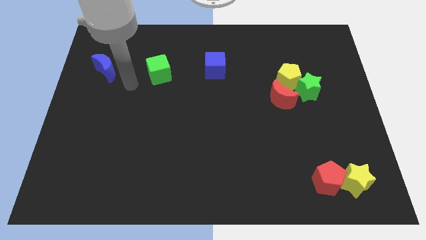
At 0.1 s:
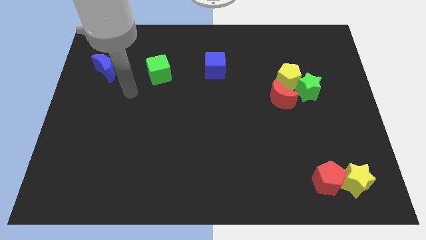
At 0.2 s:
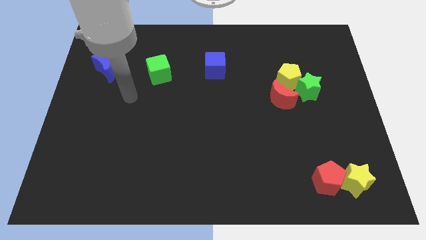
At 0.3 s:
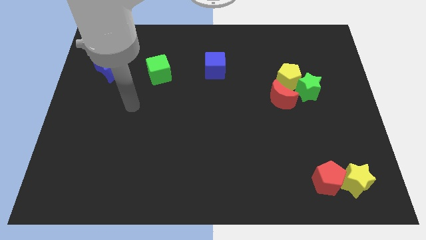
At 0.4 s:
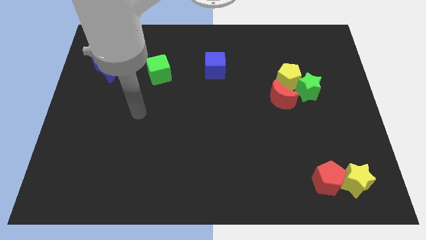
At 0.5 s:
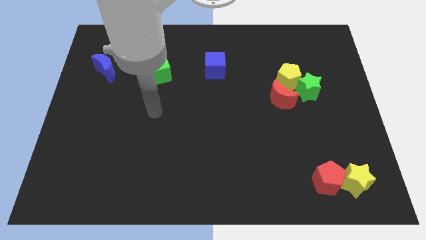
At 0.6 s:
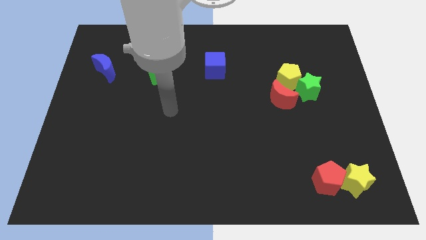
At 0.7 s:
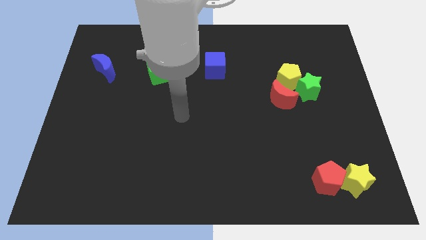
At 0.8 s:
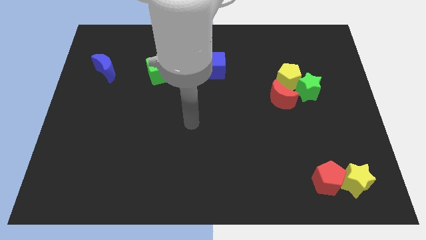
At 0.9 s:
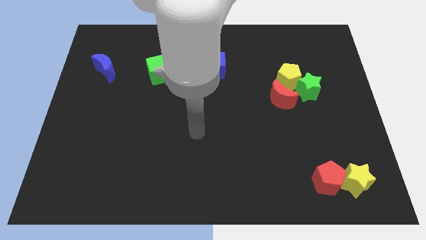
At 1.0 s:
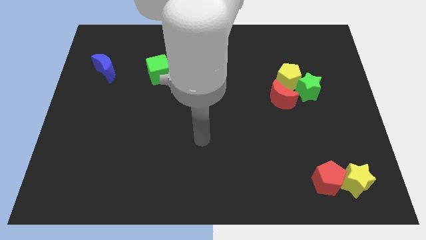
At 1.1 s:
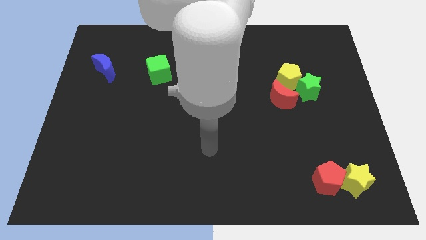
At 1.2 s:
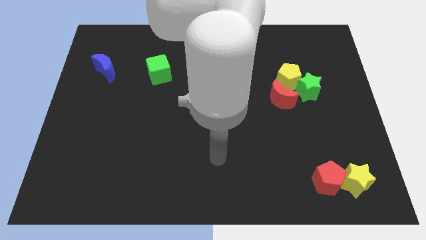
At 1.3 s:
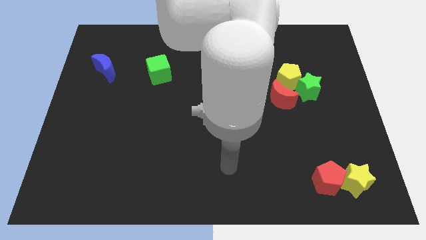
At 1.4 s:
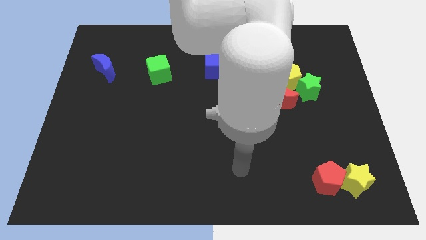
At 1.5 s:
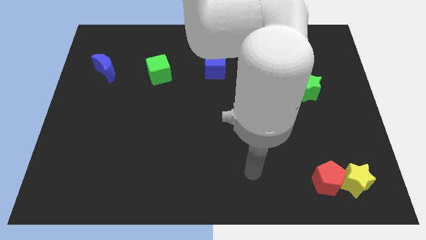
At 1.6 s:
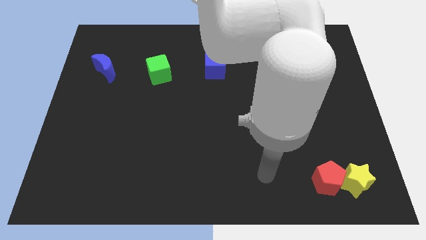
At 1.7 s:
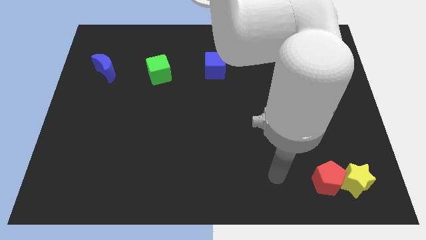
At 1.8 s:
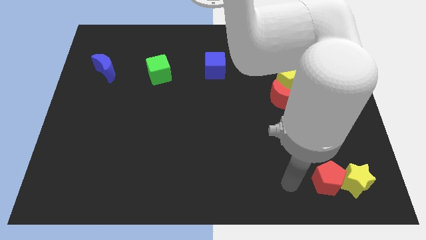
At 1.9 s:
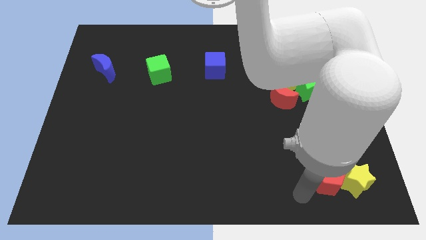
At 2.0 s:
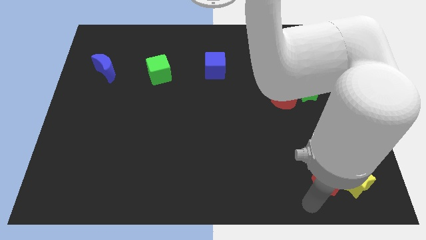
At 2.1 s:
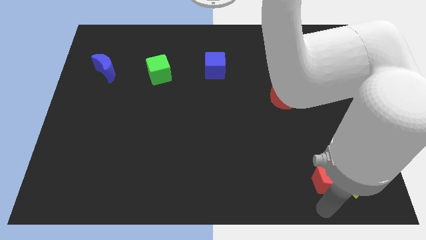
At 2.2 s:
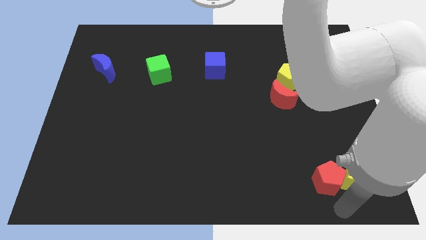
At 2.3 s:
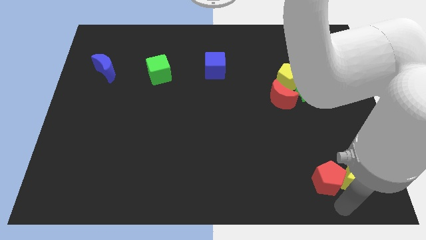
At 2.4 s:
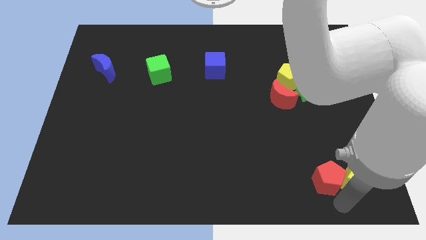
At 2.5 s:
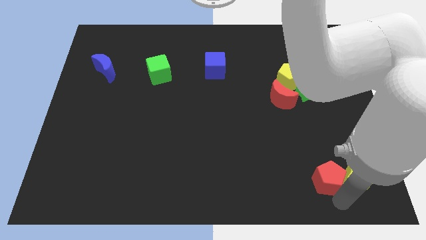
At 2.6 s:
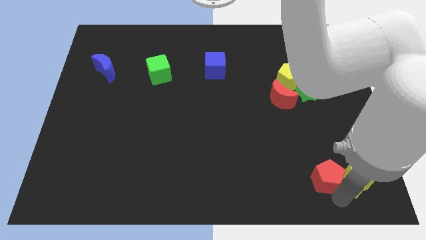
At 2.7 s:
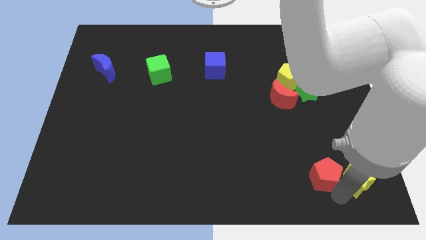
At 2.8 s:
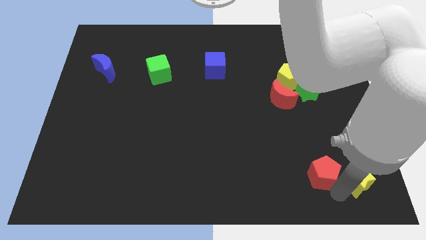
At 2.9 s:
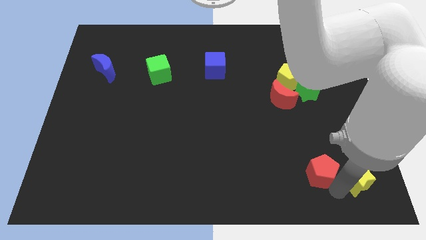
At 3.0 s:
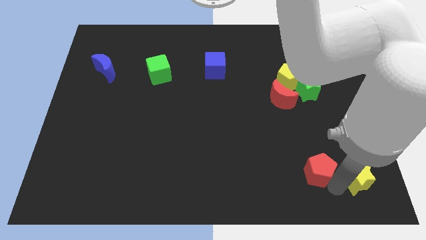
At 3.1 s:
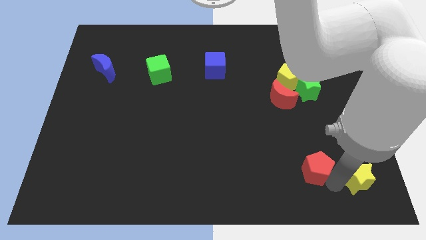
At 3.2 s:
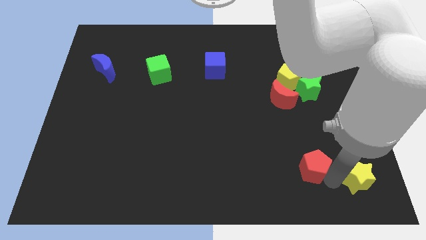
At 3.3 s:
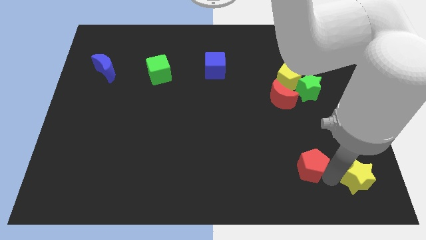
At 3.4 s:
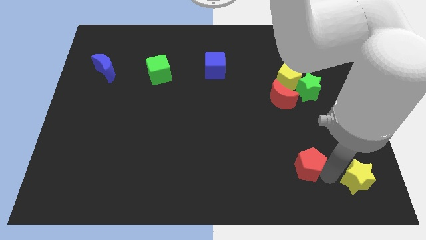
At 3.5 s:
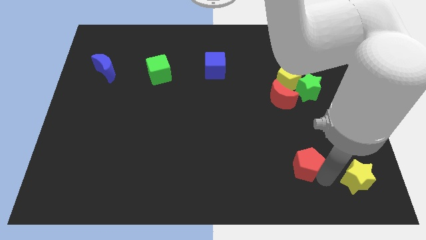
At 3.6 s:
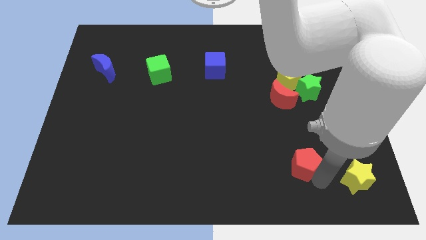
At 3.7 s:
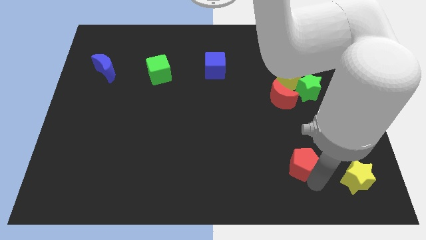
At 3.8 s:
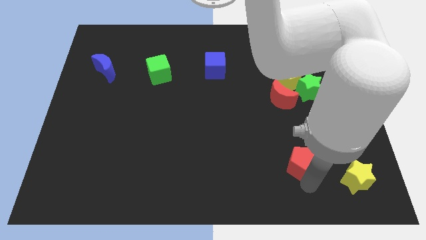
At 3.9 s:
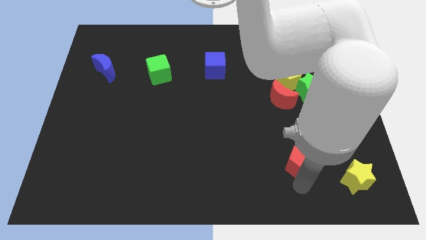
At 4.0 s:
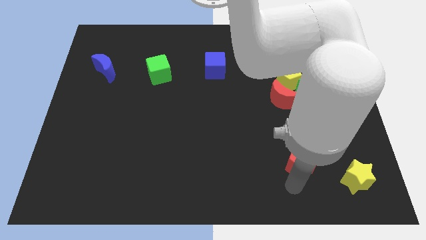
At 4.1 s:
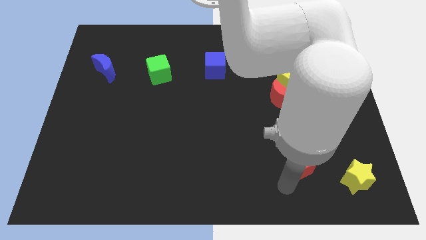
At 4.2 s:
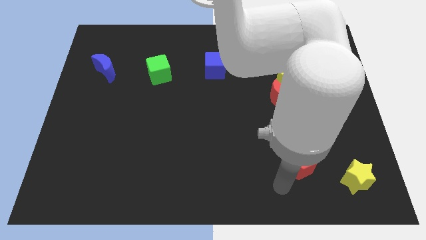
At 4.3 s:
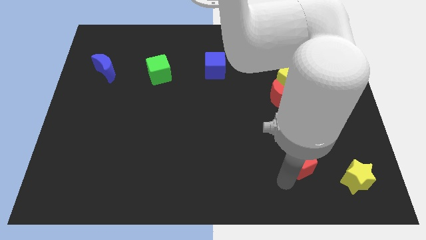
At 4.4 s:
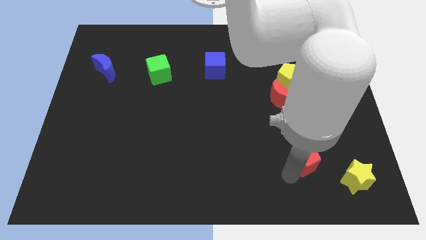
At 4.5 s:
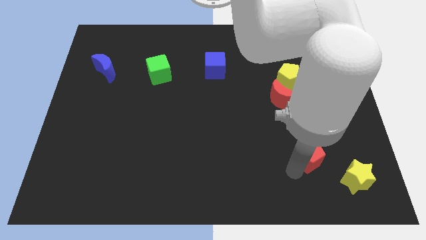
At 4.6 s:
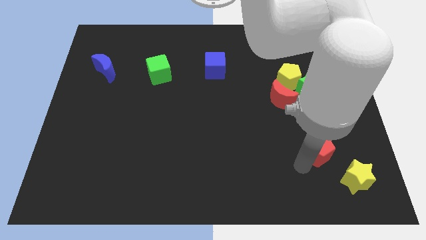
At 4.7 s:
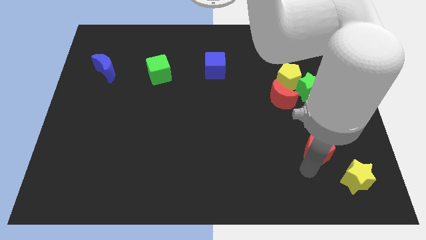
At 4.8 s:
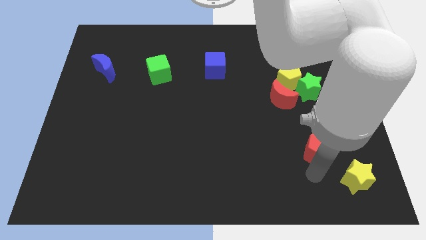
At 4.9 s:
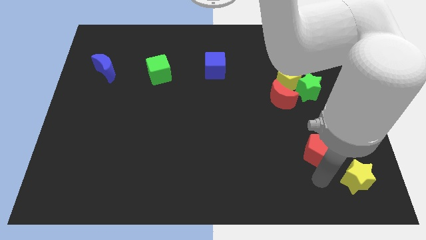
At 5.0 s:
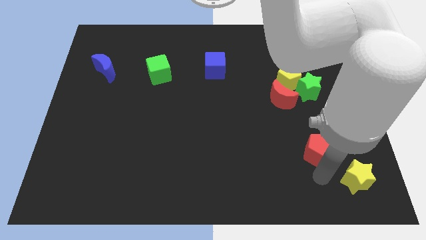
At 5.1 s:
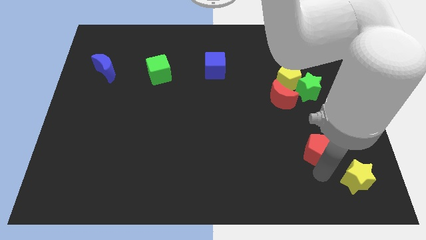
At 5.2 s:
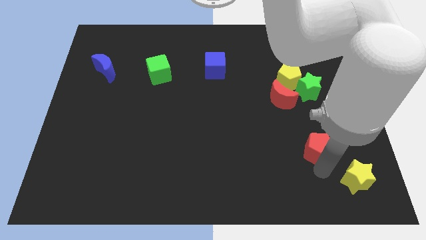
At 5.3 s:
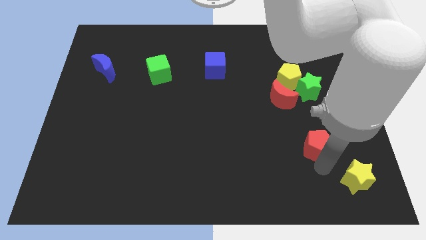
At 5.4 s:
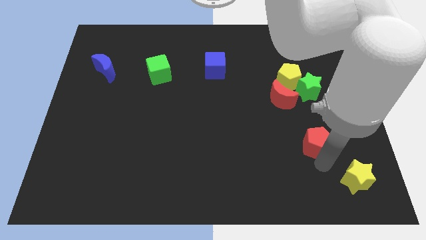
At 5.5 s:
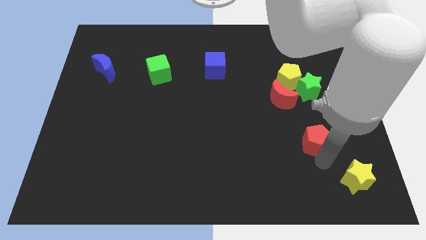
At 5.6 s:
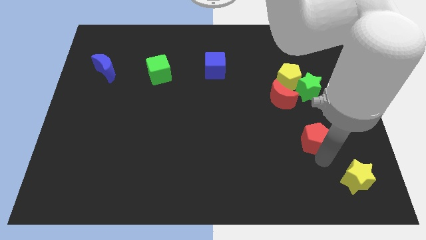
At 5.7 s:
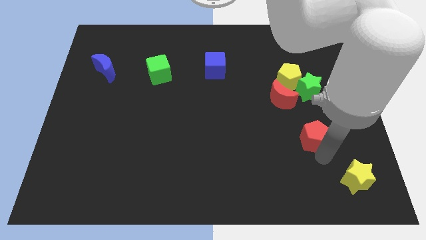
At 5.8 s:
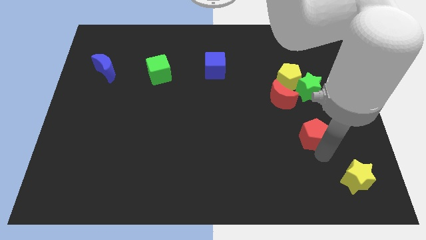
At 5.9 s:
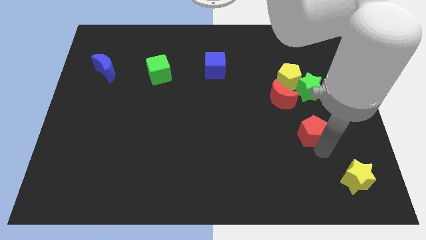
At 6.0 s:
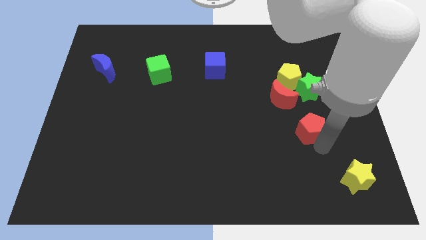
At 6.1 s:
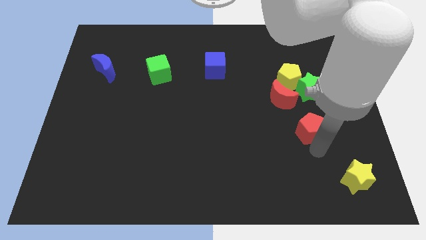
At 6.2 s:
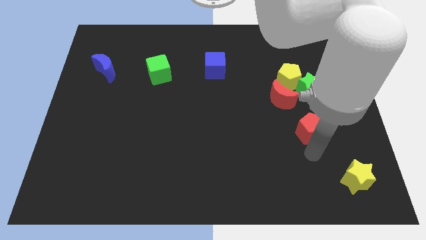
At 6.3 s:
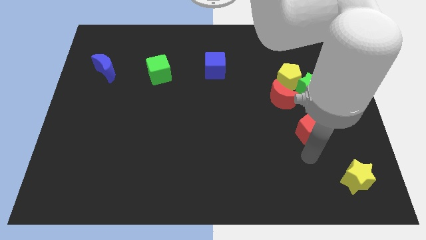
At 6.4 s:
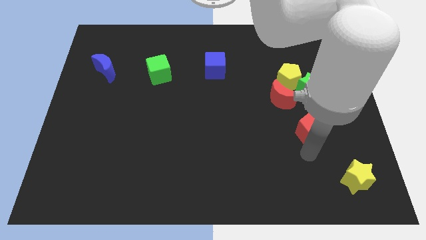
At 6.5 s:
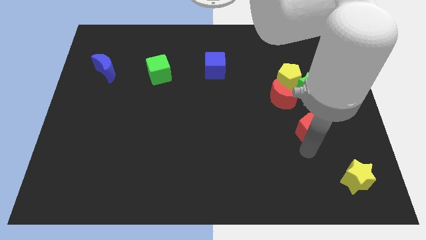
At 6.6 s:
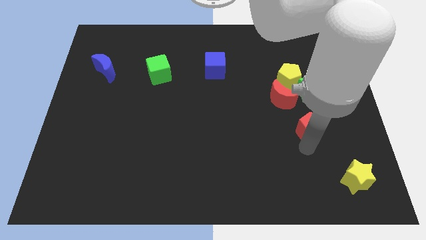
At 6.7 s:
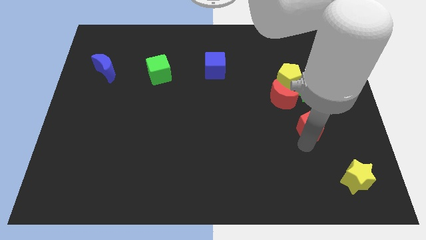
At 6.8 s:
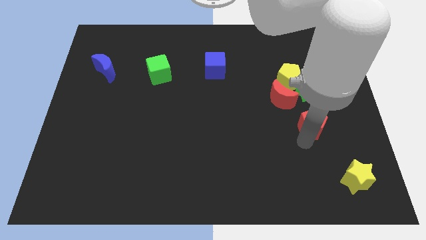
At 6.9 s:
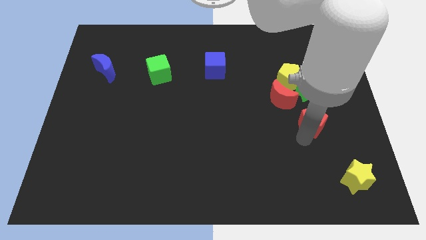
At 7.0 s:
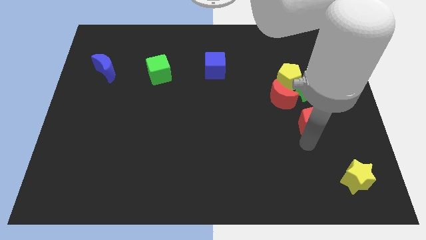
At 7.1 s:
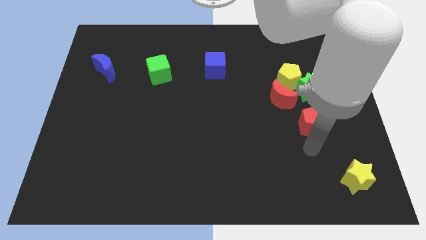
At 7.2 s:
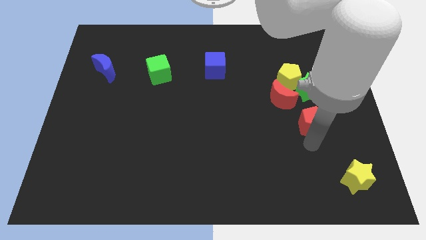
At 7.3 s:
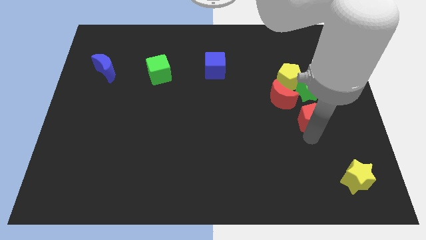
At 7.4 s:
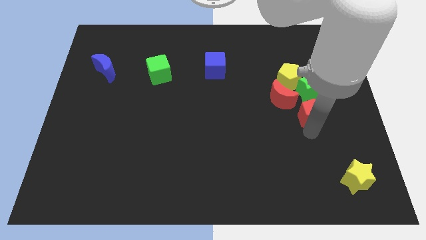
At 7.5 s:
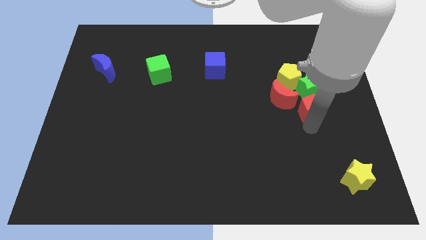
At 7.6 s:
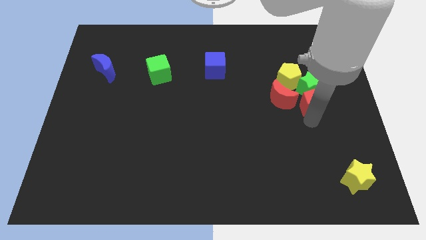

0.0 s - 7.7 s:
slide the red pentagon to the green star
